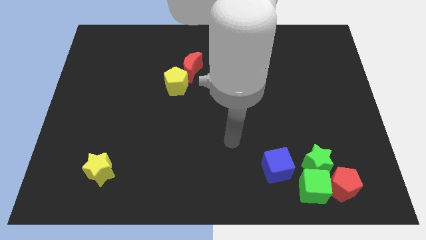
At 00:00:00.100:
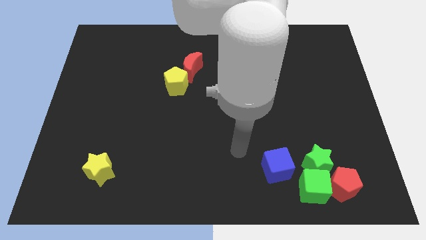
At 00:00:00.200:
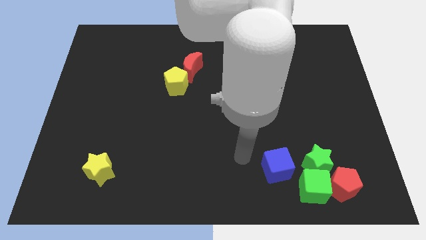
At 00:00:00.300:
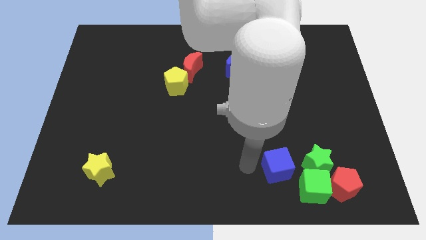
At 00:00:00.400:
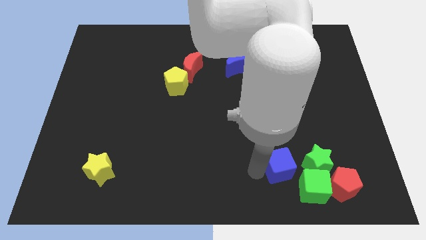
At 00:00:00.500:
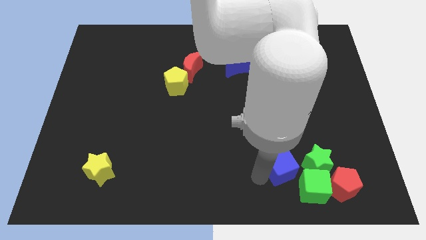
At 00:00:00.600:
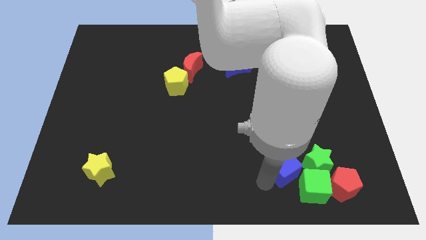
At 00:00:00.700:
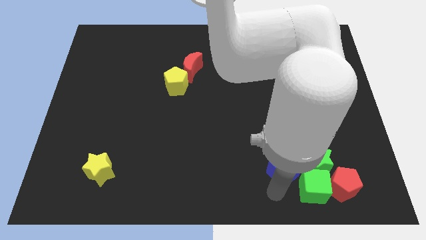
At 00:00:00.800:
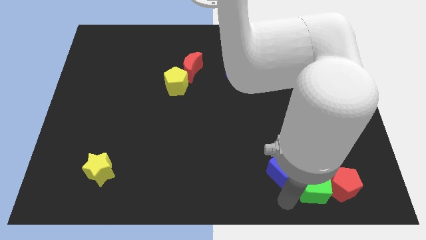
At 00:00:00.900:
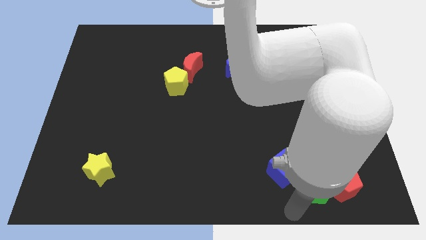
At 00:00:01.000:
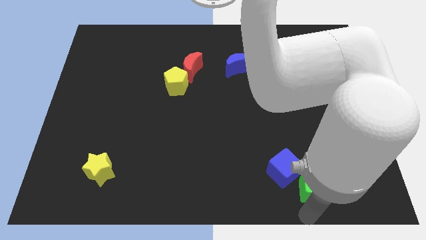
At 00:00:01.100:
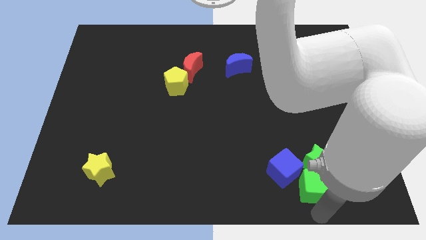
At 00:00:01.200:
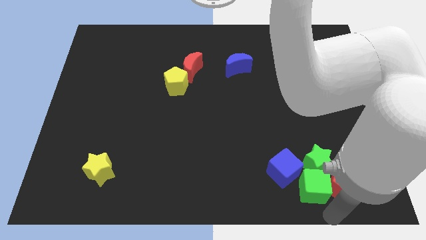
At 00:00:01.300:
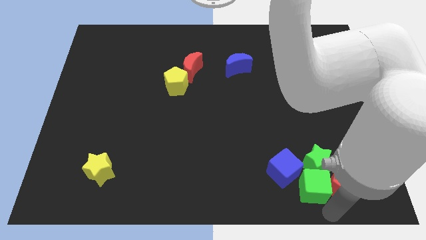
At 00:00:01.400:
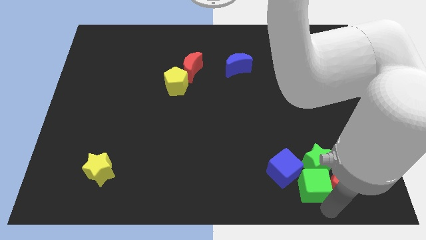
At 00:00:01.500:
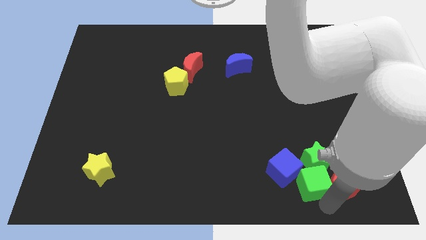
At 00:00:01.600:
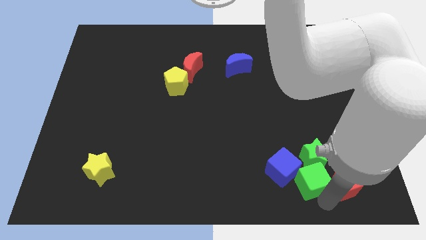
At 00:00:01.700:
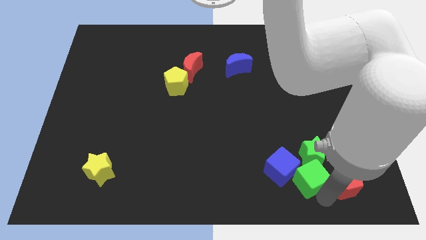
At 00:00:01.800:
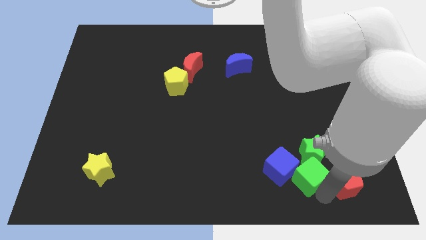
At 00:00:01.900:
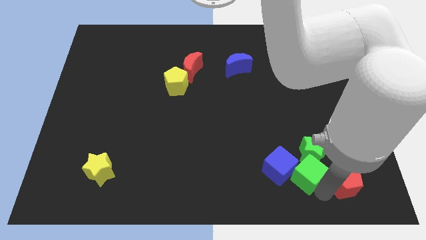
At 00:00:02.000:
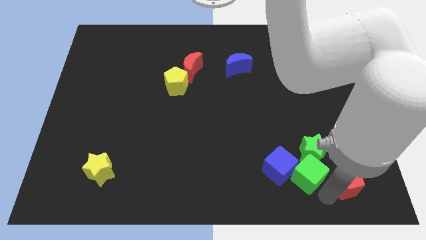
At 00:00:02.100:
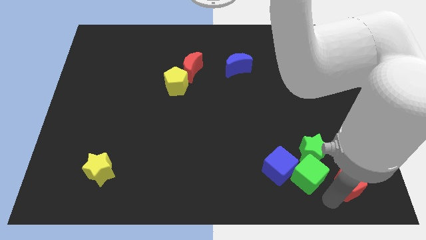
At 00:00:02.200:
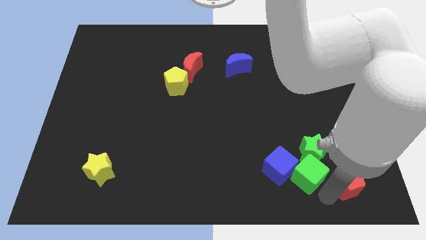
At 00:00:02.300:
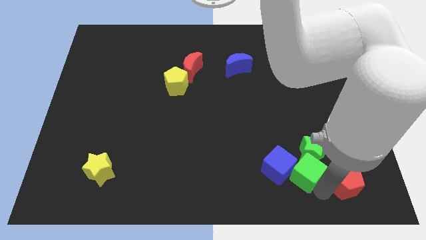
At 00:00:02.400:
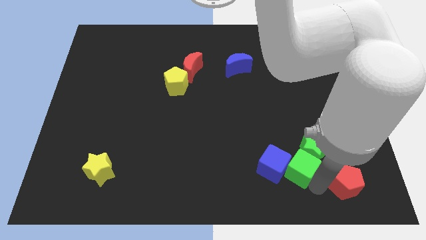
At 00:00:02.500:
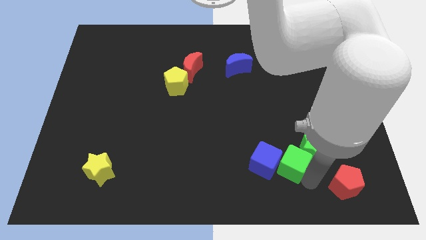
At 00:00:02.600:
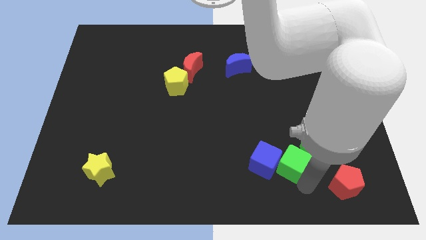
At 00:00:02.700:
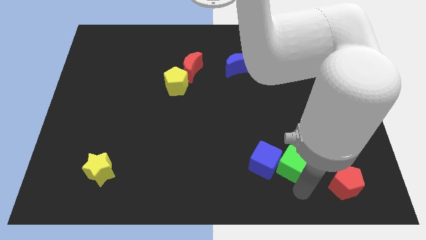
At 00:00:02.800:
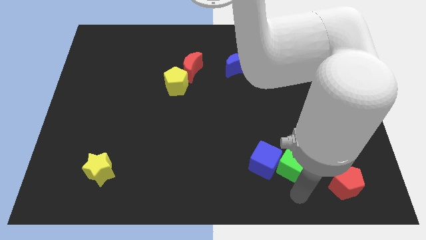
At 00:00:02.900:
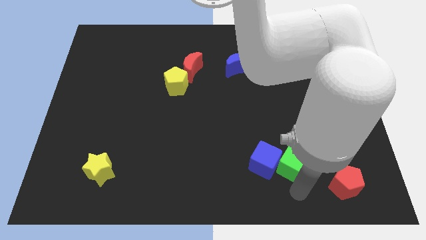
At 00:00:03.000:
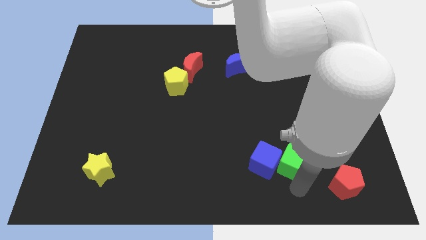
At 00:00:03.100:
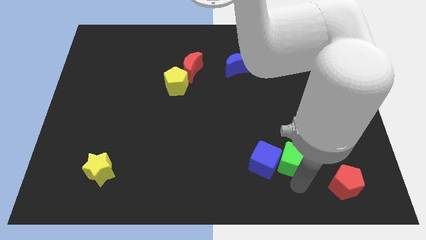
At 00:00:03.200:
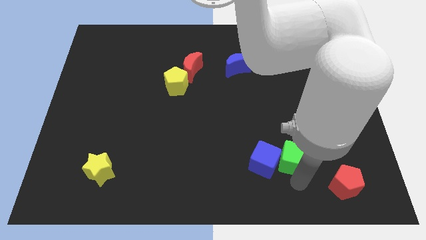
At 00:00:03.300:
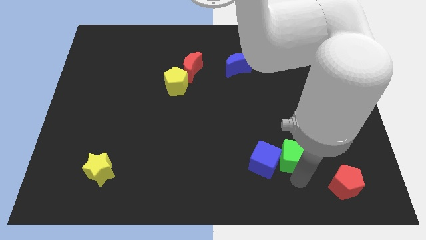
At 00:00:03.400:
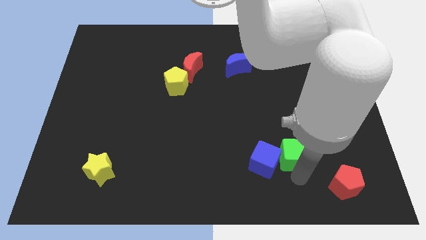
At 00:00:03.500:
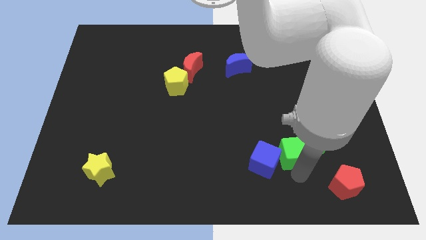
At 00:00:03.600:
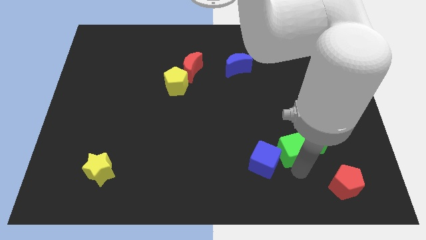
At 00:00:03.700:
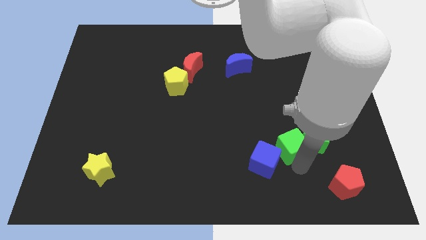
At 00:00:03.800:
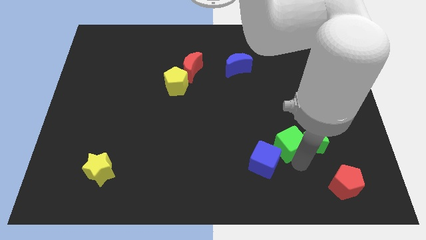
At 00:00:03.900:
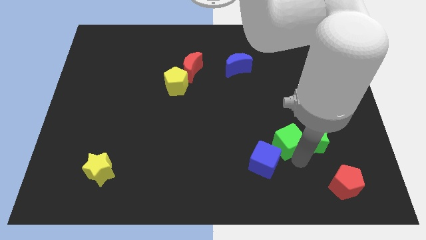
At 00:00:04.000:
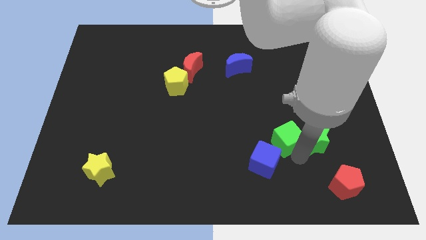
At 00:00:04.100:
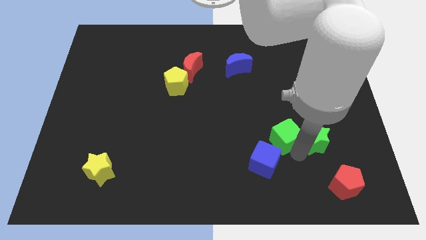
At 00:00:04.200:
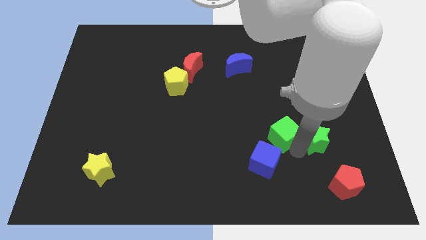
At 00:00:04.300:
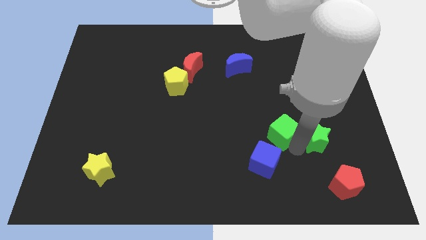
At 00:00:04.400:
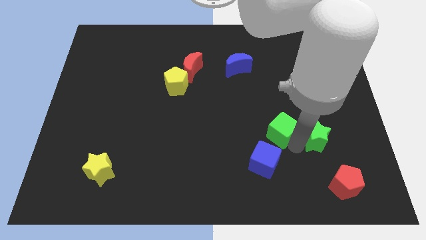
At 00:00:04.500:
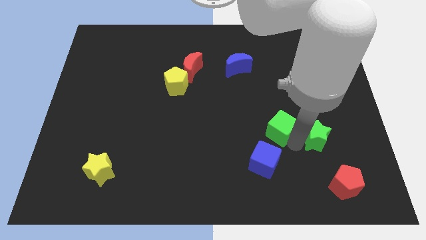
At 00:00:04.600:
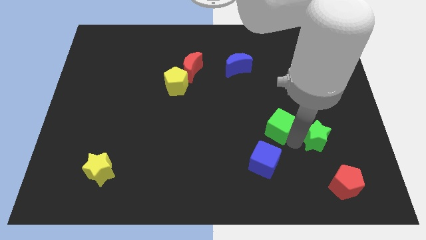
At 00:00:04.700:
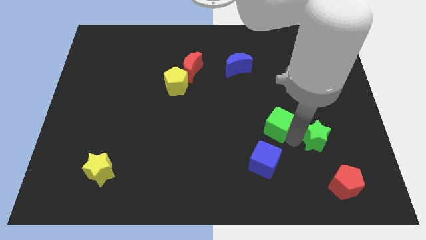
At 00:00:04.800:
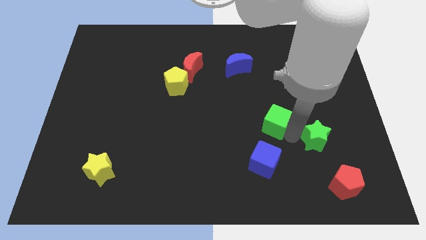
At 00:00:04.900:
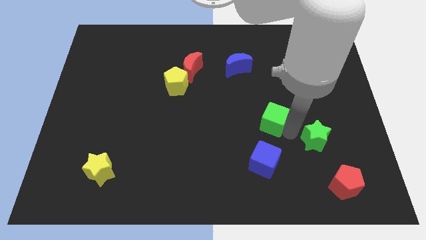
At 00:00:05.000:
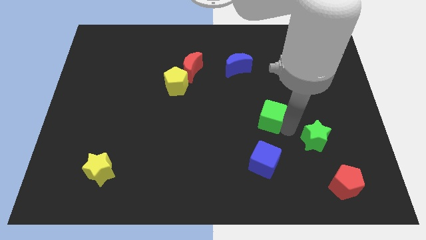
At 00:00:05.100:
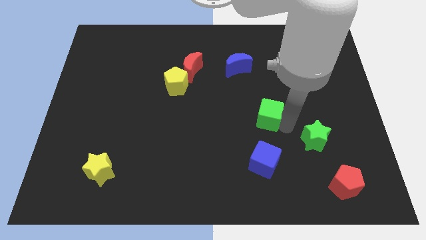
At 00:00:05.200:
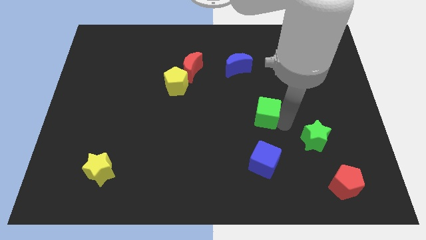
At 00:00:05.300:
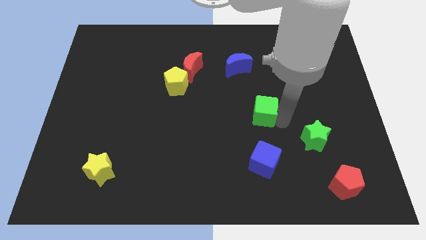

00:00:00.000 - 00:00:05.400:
slide the green cube to the center
